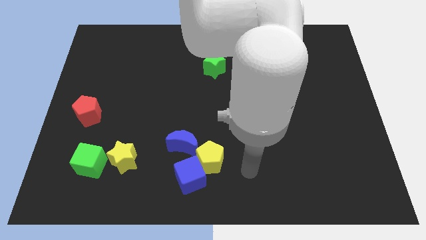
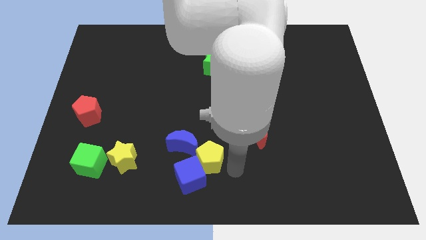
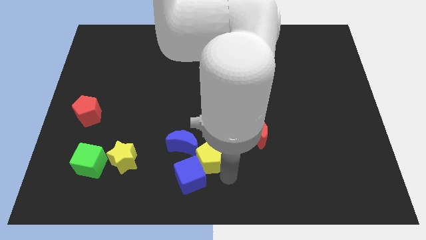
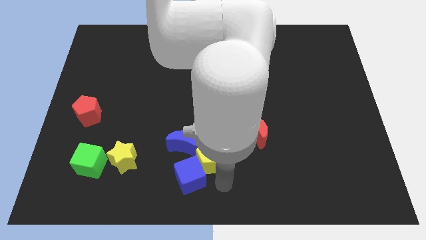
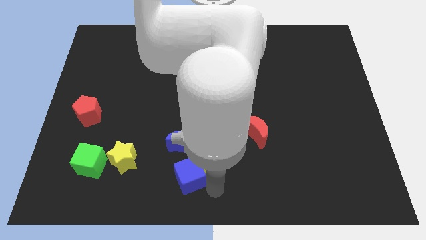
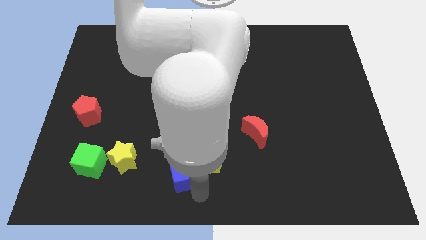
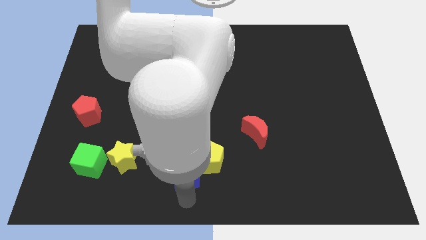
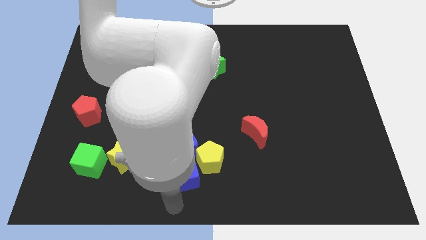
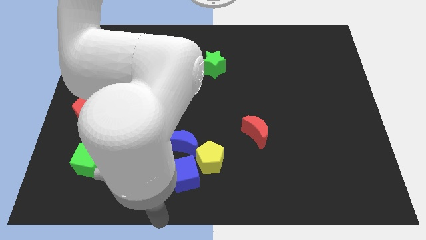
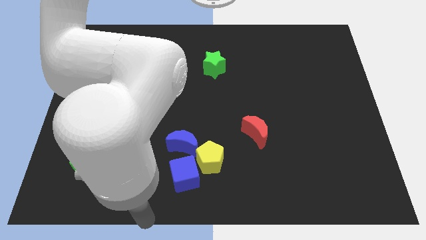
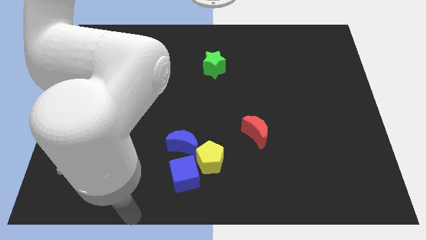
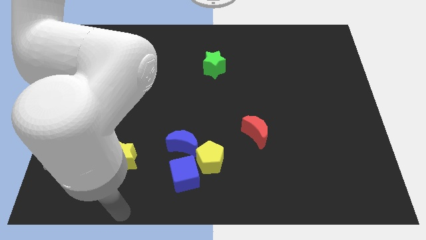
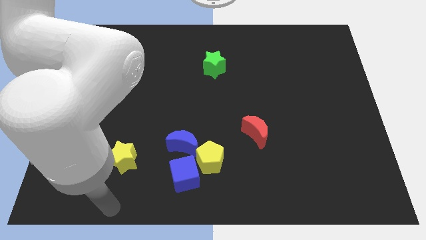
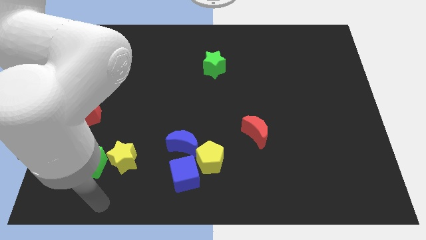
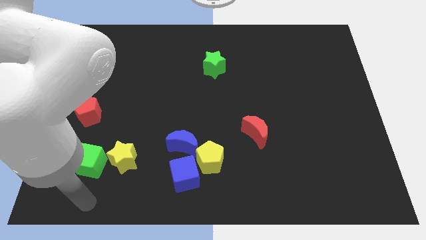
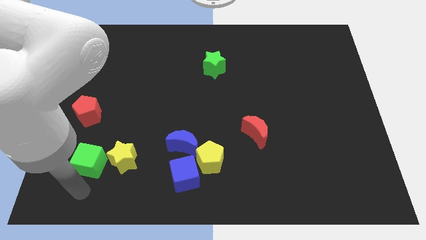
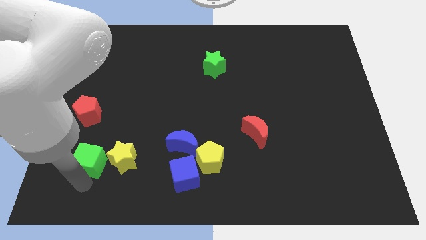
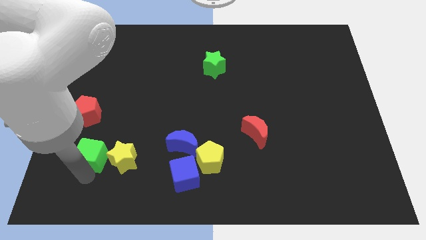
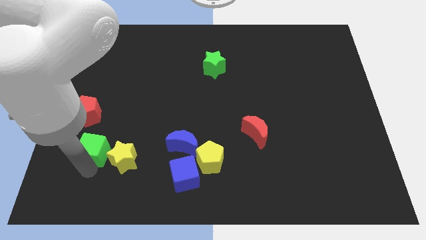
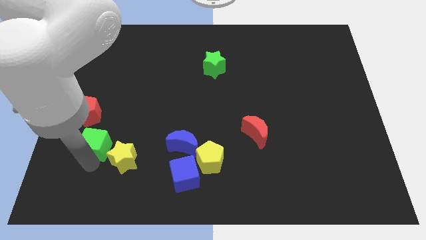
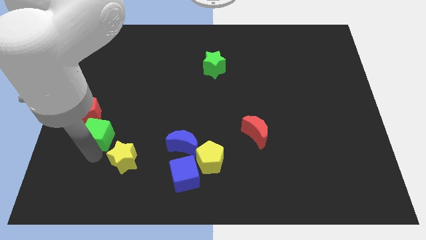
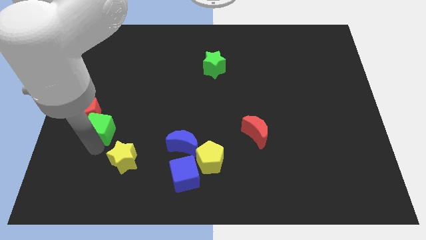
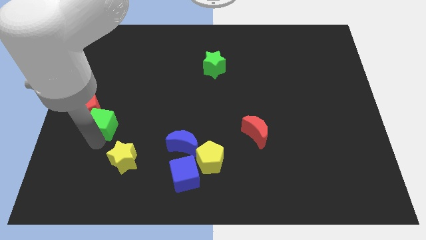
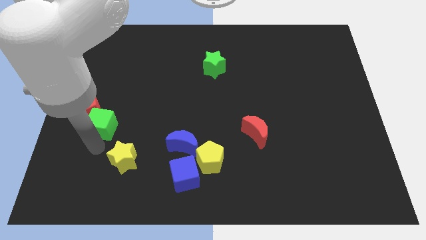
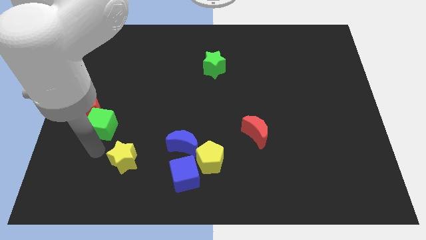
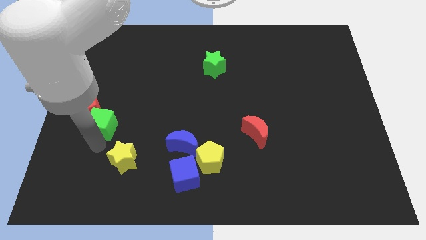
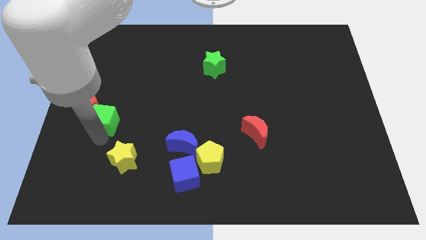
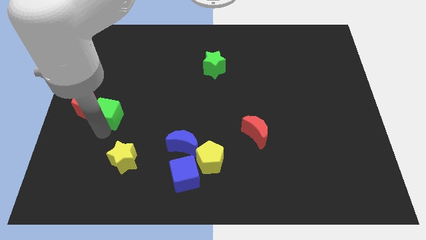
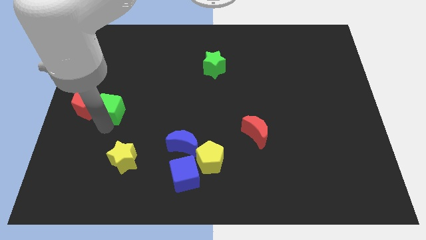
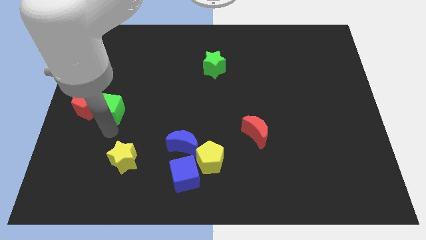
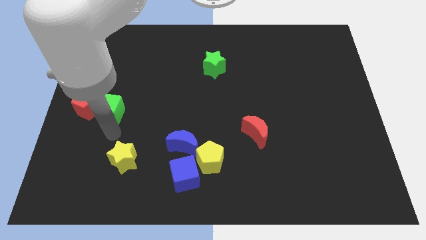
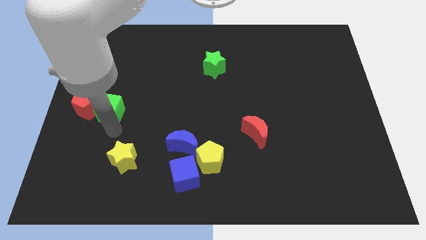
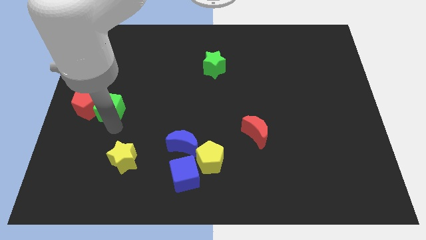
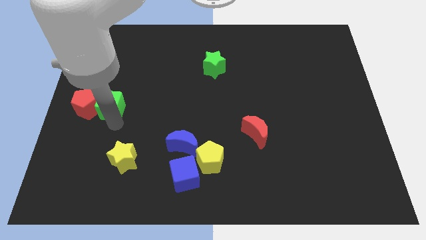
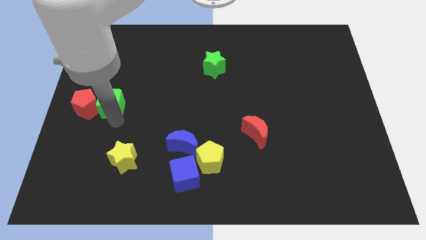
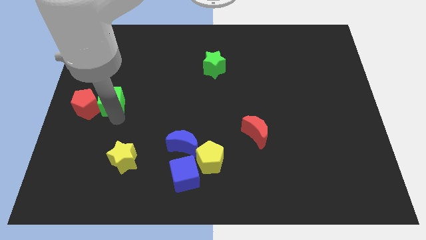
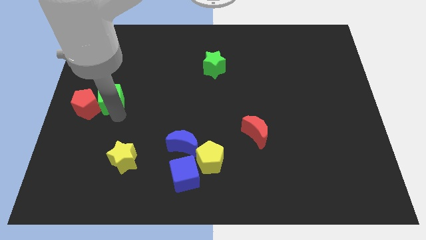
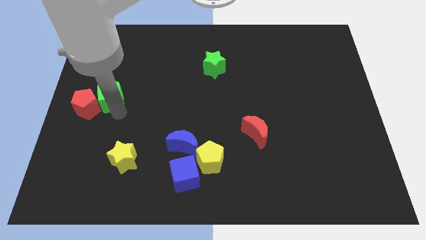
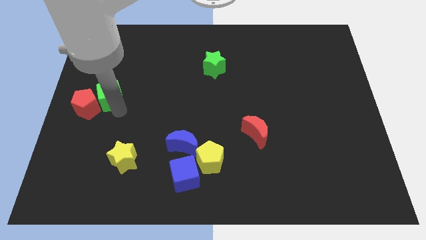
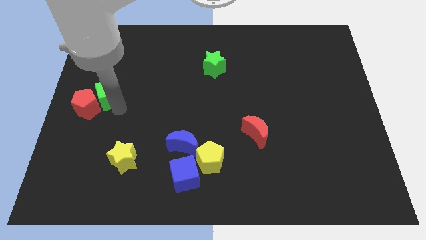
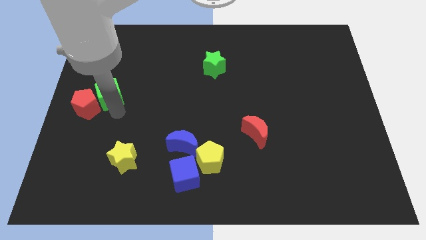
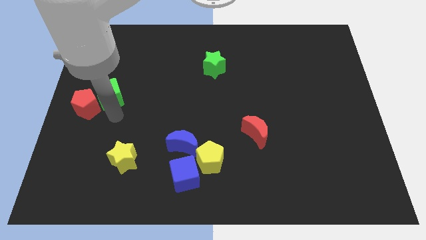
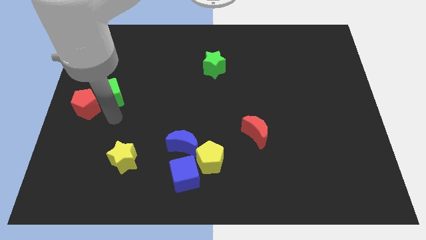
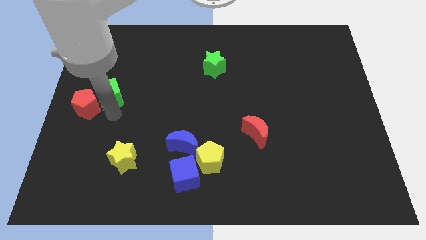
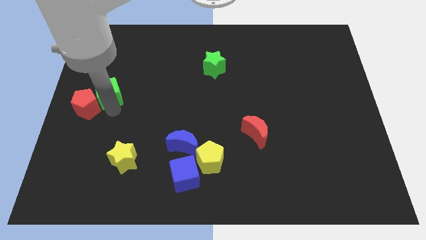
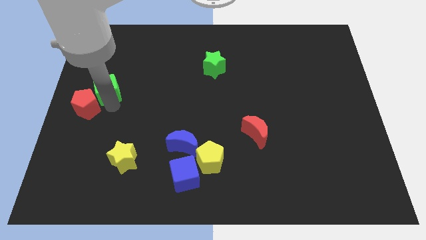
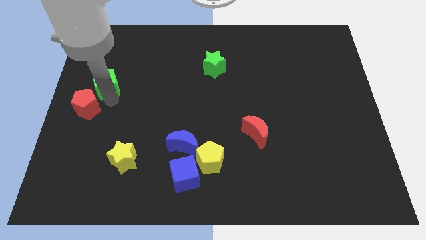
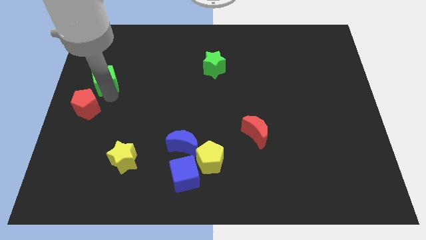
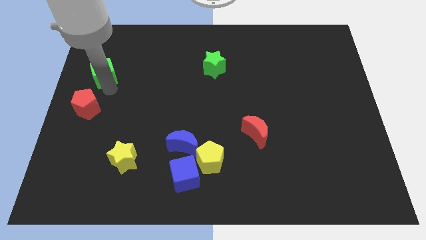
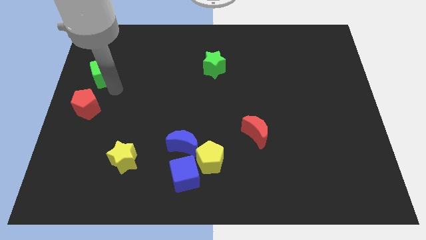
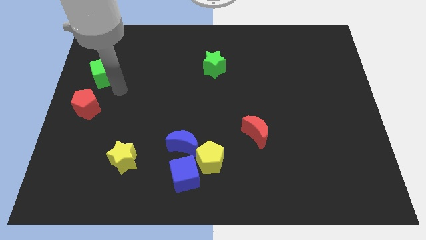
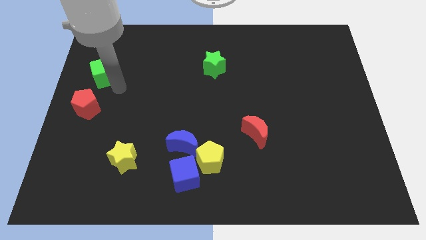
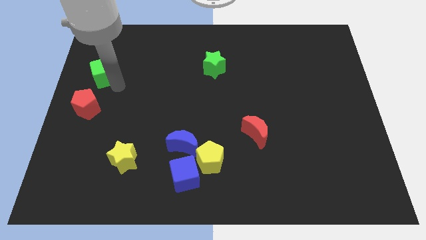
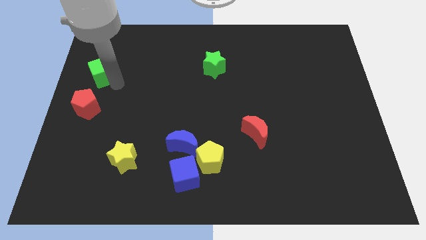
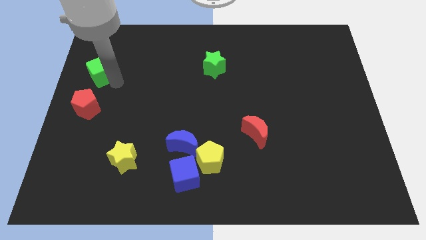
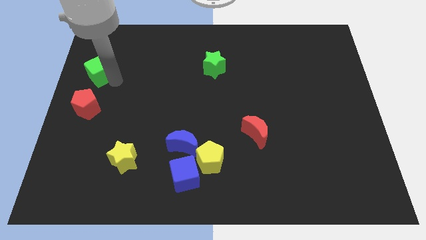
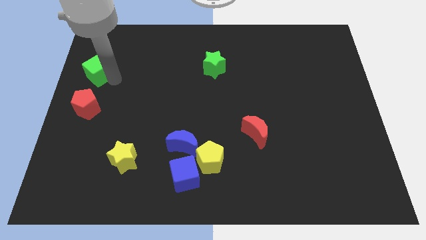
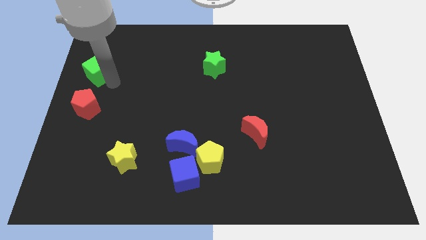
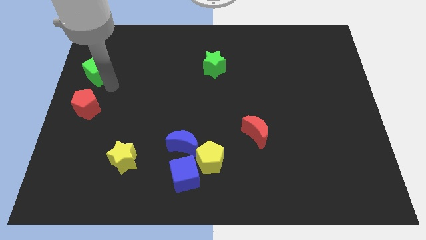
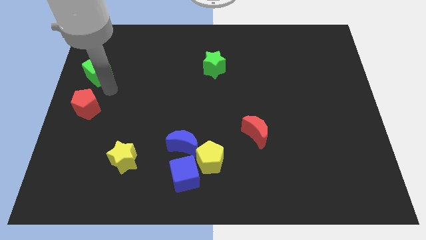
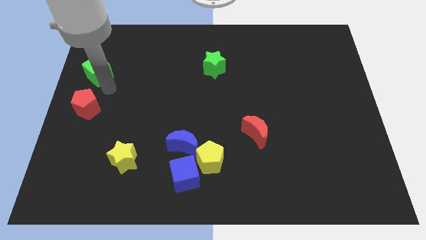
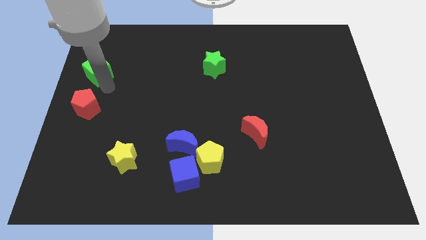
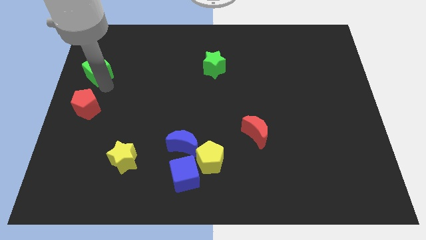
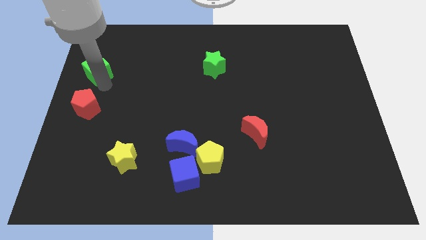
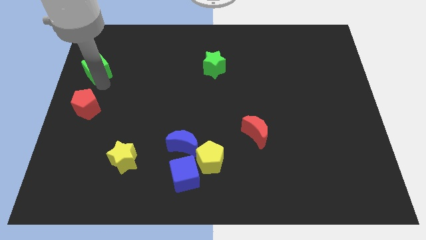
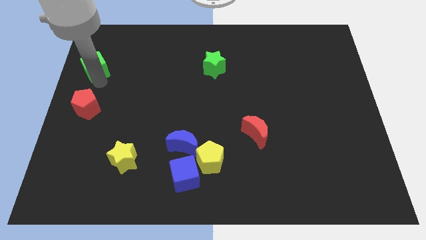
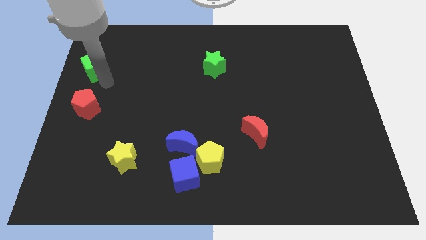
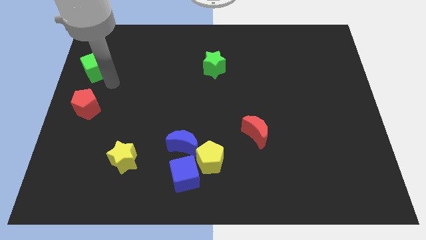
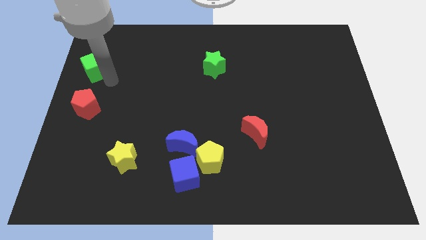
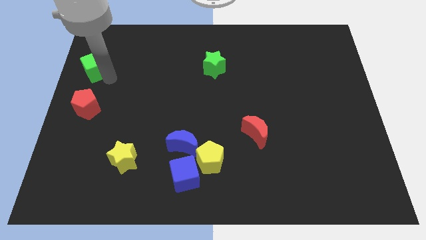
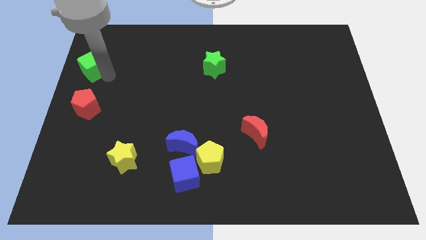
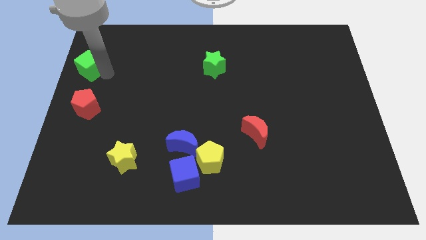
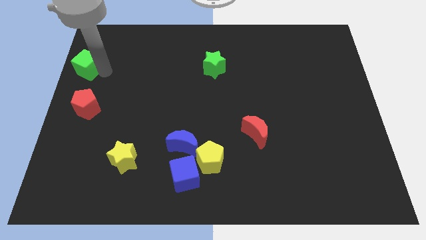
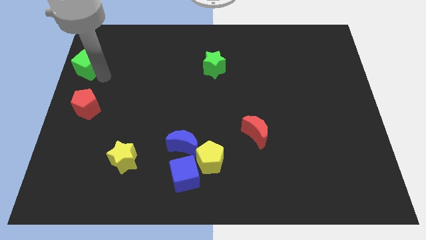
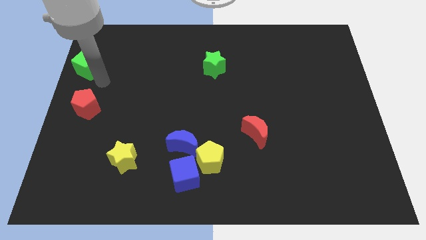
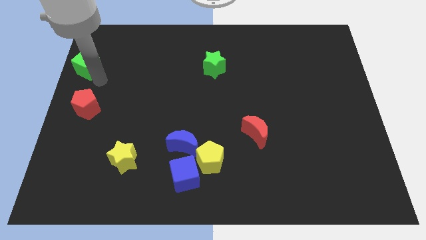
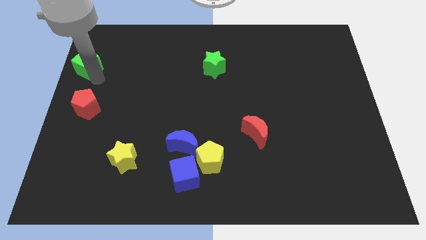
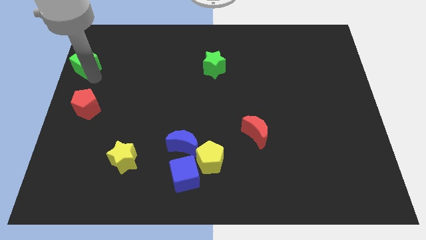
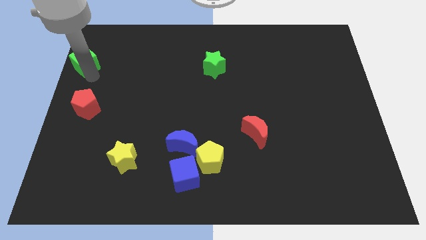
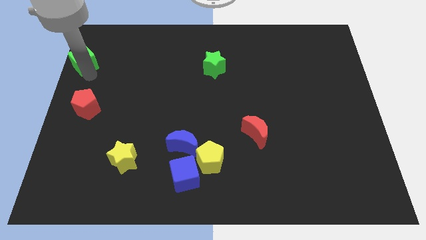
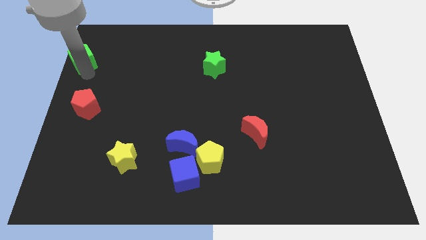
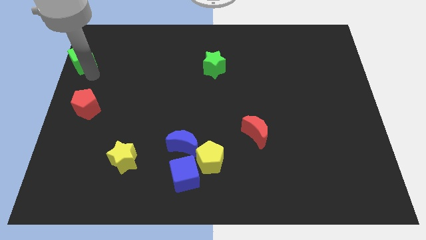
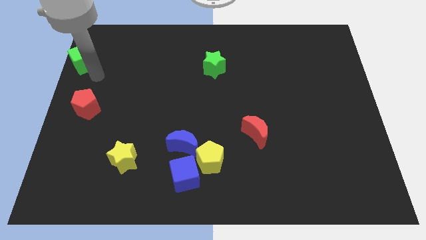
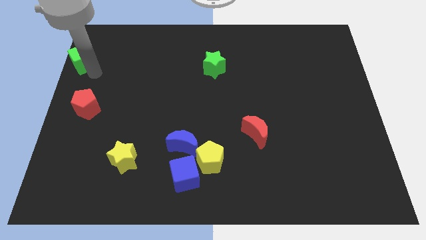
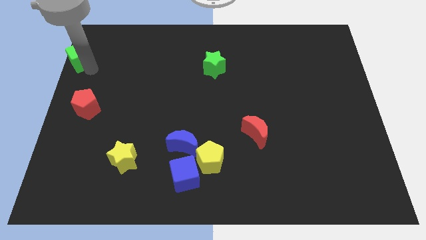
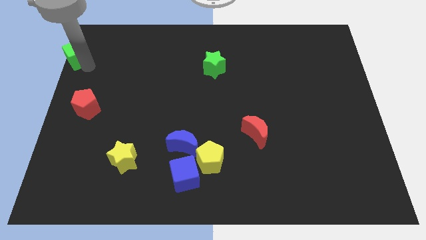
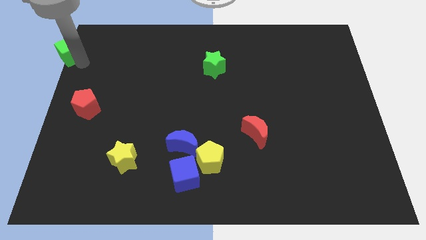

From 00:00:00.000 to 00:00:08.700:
put the green cube to the top left of the board
